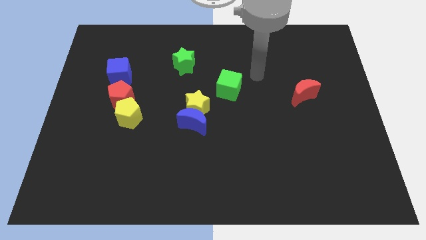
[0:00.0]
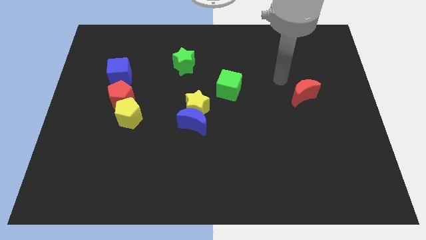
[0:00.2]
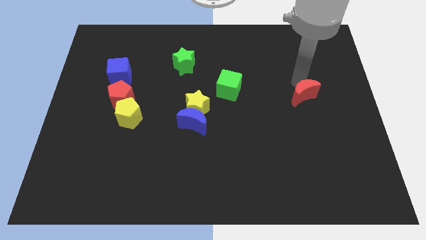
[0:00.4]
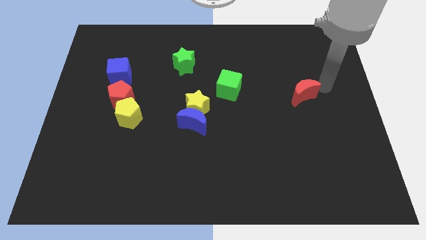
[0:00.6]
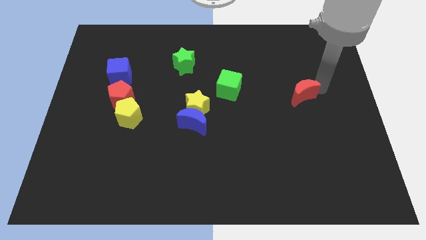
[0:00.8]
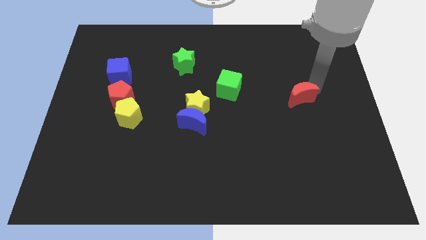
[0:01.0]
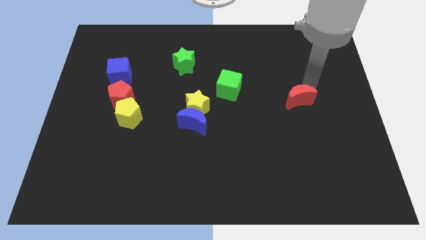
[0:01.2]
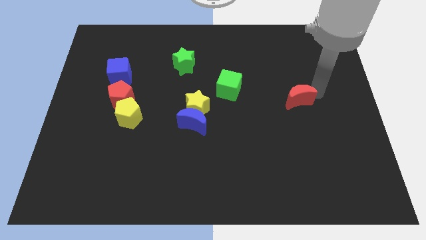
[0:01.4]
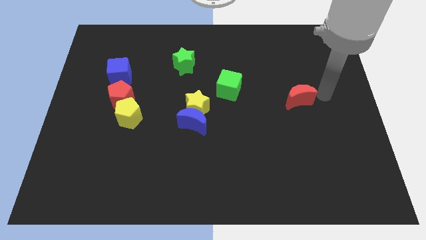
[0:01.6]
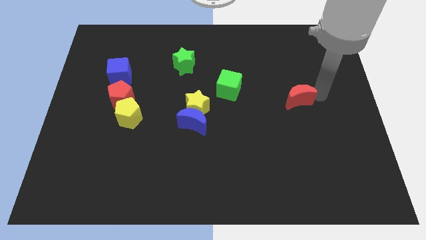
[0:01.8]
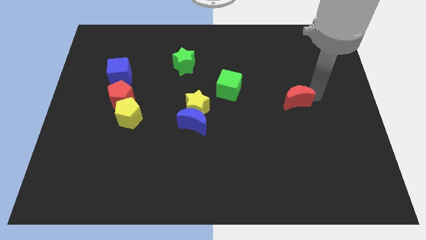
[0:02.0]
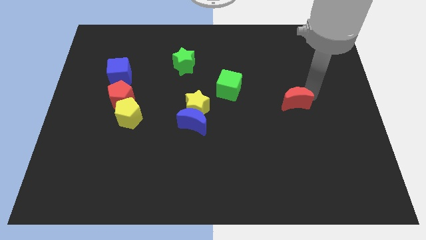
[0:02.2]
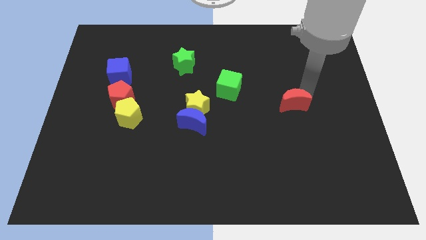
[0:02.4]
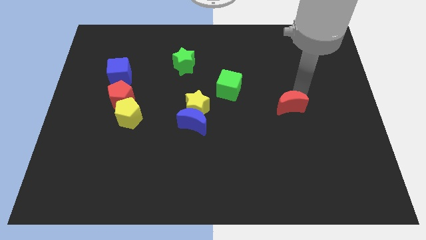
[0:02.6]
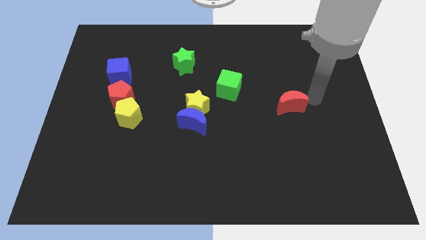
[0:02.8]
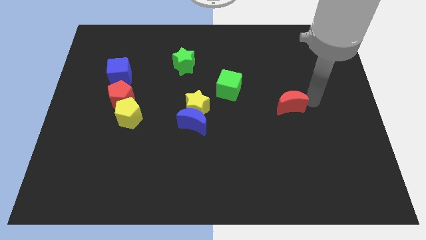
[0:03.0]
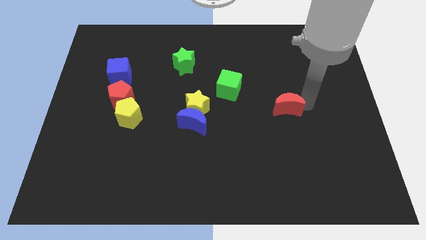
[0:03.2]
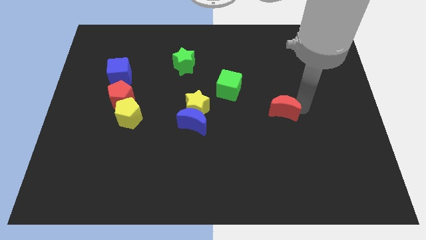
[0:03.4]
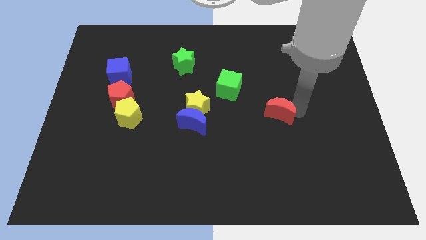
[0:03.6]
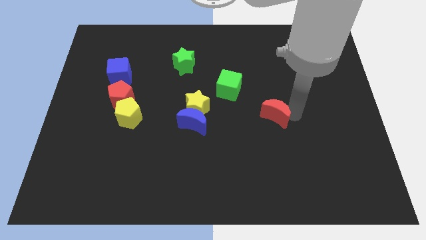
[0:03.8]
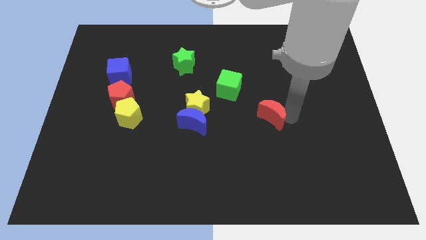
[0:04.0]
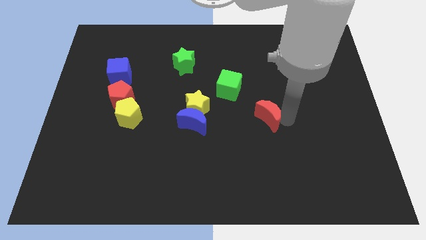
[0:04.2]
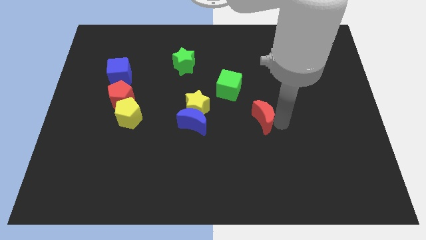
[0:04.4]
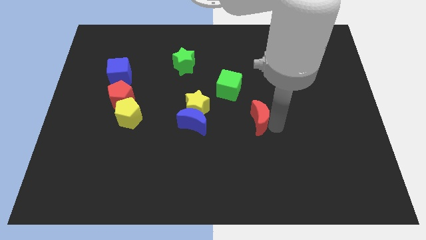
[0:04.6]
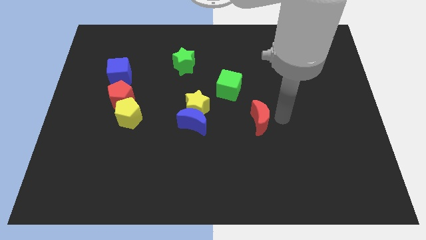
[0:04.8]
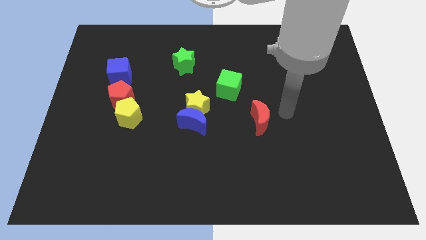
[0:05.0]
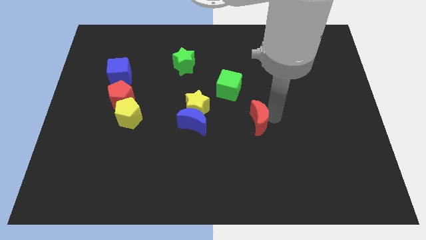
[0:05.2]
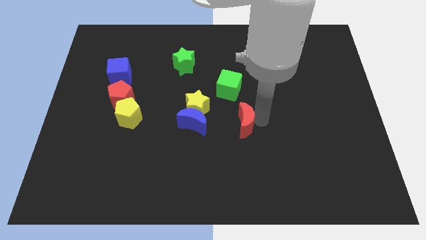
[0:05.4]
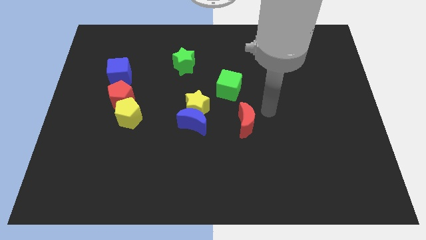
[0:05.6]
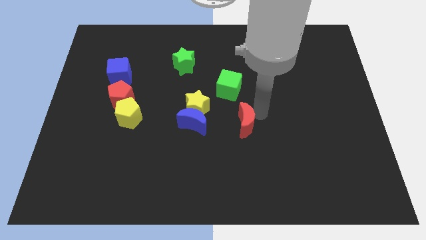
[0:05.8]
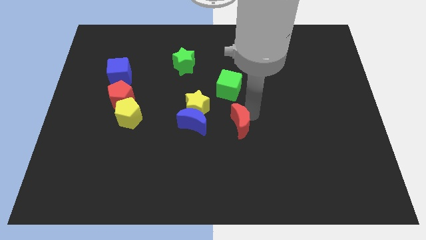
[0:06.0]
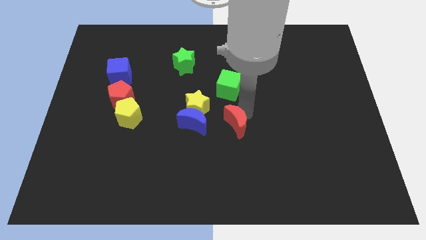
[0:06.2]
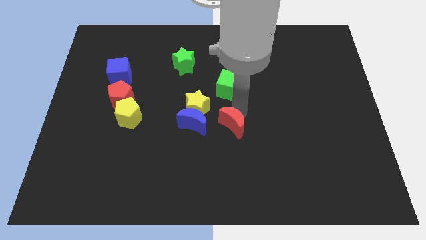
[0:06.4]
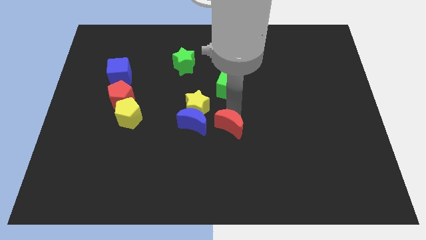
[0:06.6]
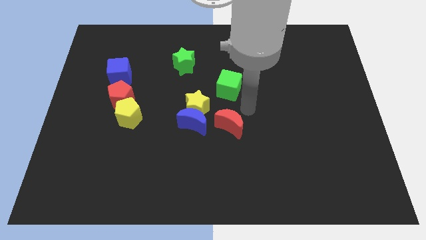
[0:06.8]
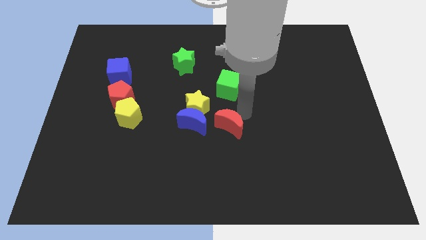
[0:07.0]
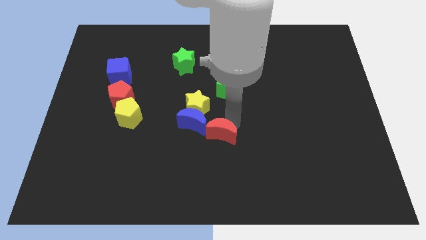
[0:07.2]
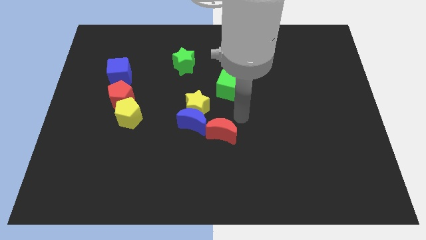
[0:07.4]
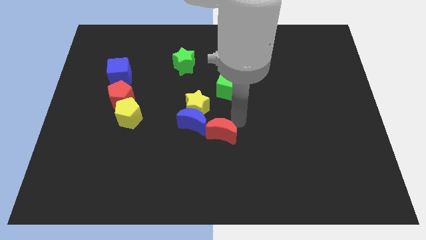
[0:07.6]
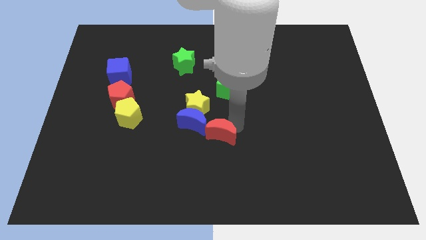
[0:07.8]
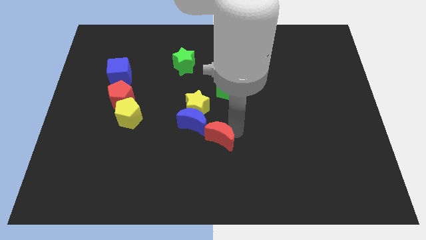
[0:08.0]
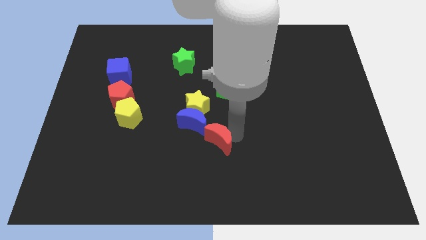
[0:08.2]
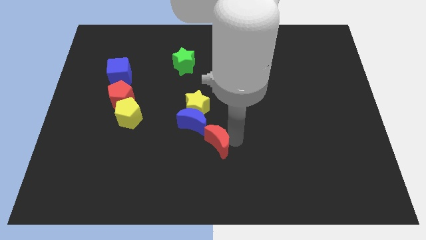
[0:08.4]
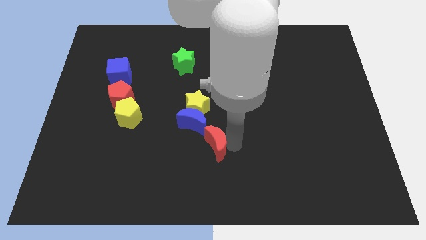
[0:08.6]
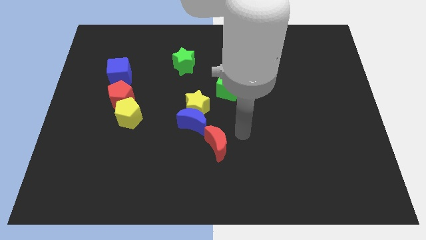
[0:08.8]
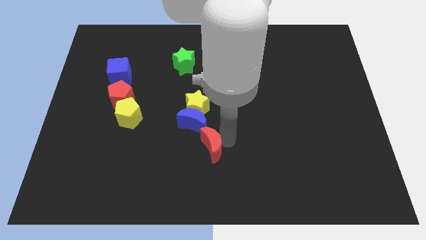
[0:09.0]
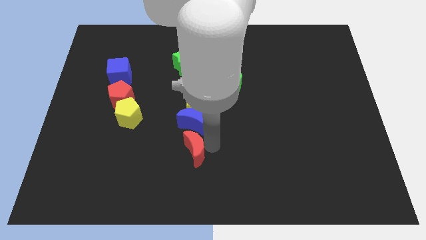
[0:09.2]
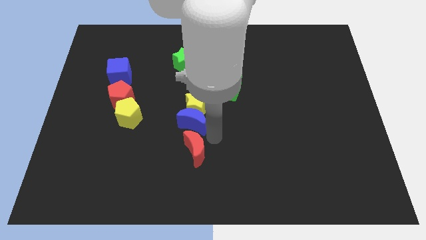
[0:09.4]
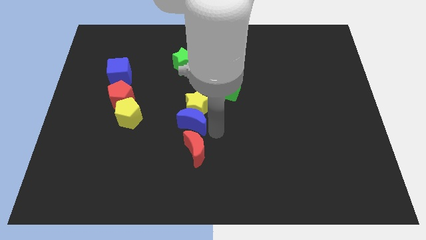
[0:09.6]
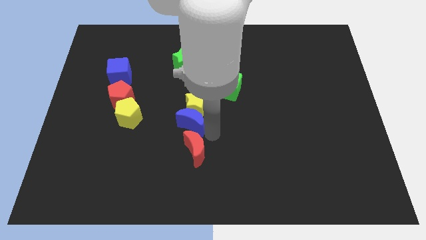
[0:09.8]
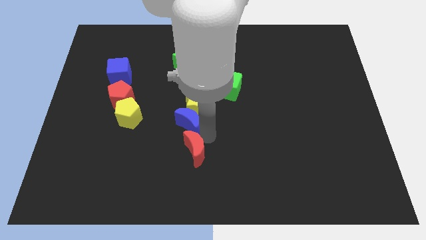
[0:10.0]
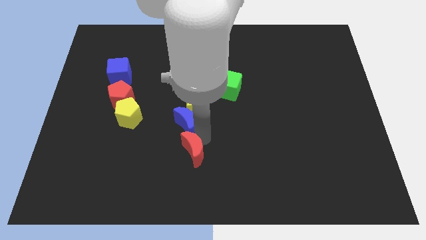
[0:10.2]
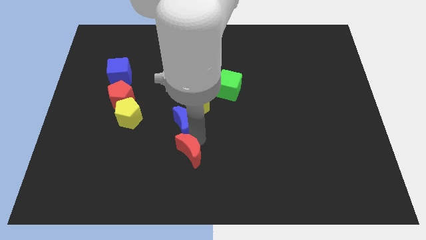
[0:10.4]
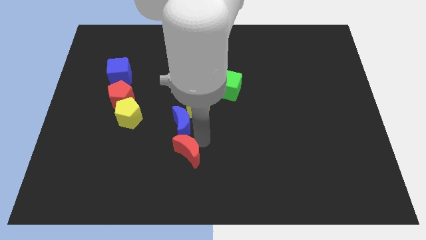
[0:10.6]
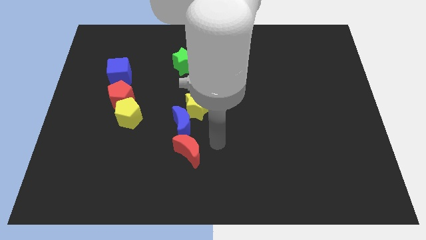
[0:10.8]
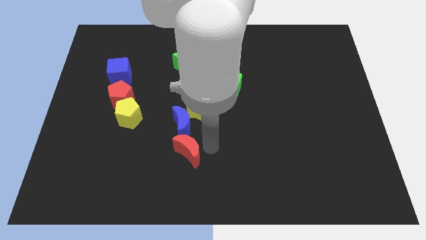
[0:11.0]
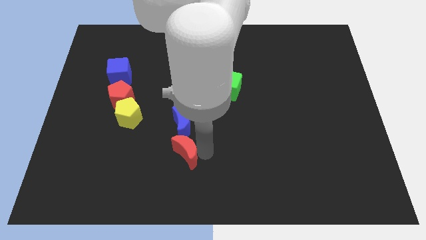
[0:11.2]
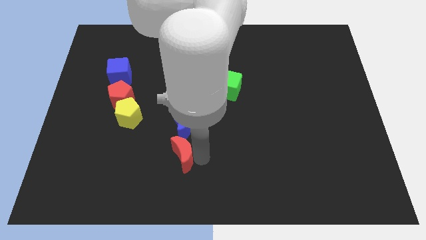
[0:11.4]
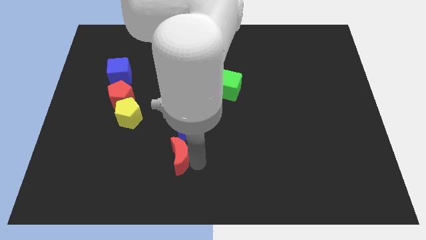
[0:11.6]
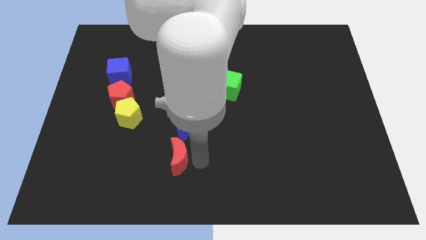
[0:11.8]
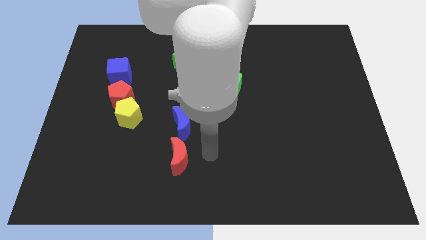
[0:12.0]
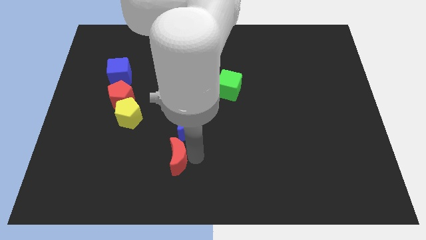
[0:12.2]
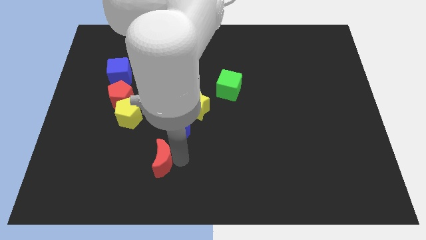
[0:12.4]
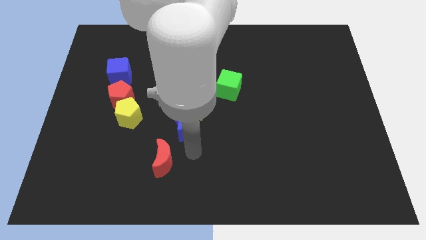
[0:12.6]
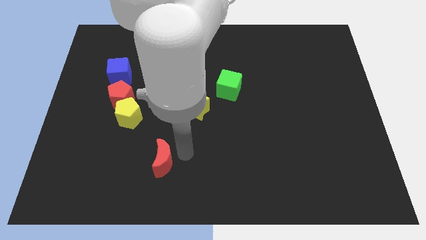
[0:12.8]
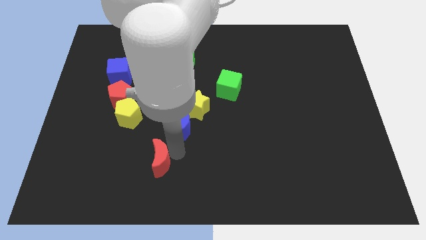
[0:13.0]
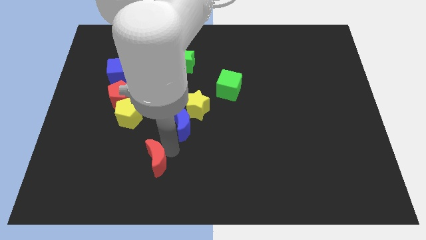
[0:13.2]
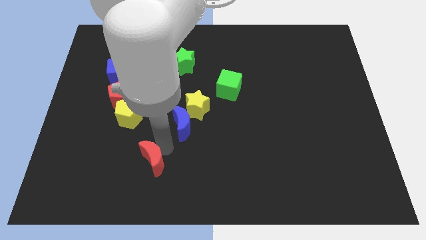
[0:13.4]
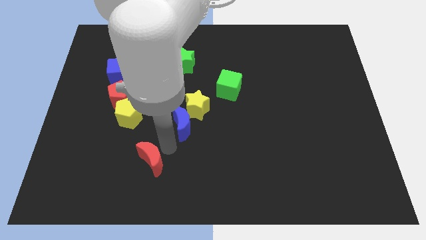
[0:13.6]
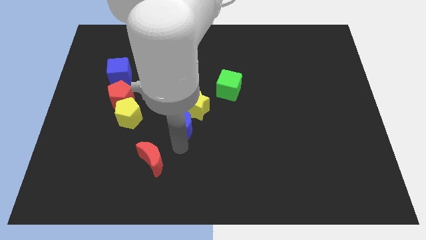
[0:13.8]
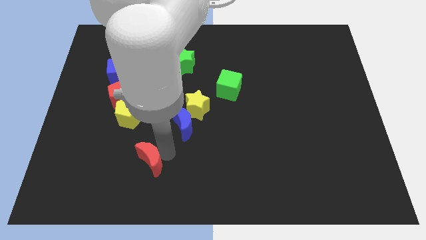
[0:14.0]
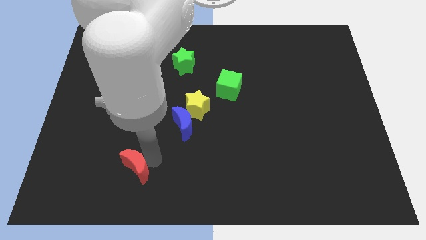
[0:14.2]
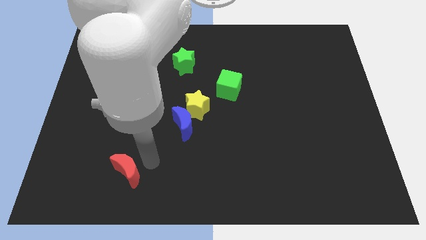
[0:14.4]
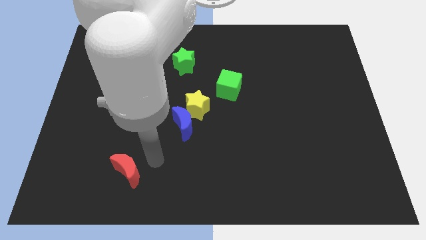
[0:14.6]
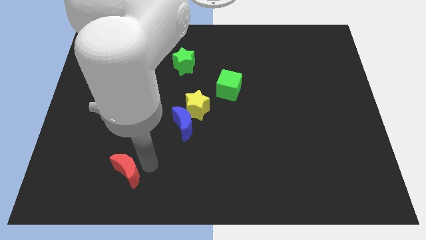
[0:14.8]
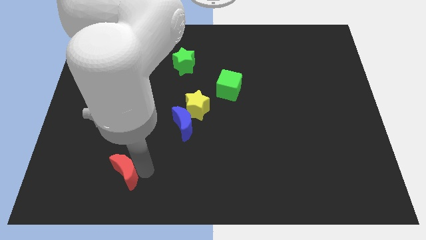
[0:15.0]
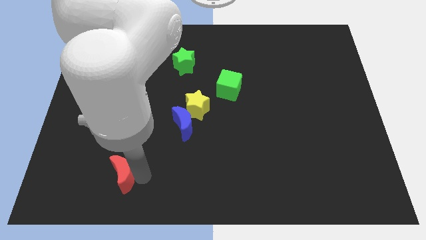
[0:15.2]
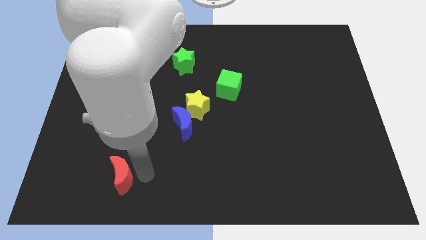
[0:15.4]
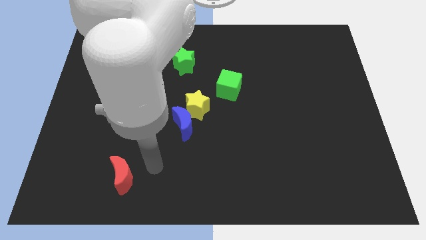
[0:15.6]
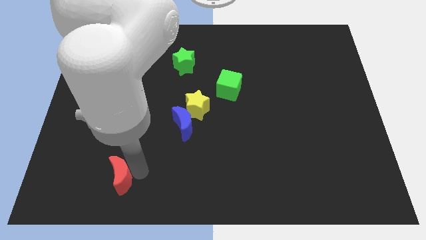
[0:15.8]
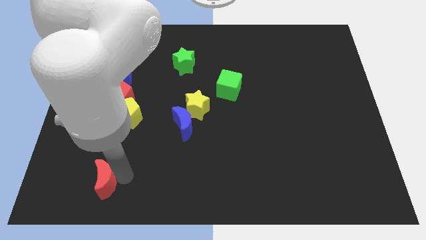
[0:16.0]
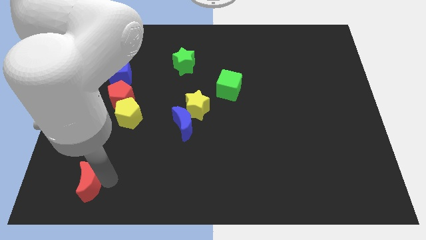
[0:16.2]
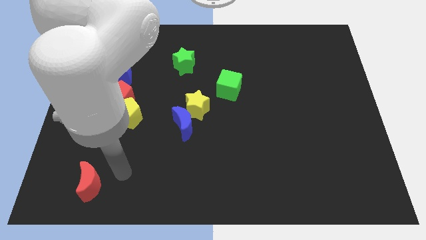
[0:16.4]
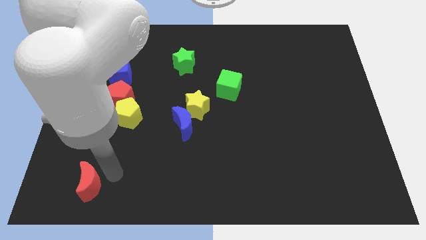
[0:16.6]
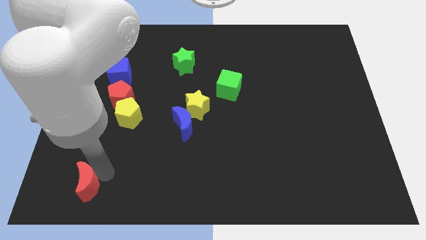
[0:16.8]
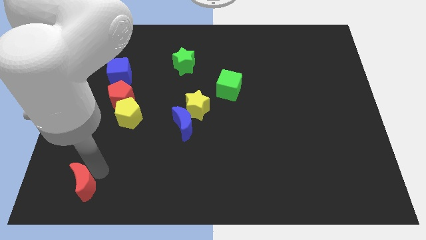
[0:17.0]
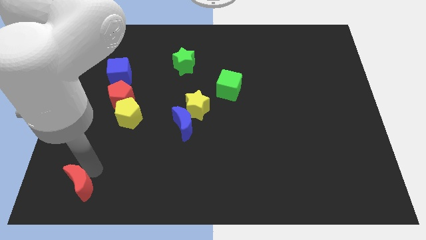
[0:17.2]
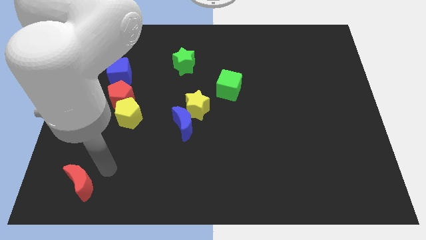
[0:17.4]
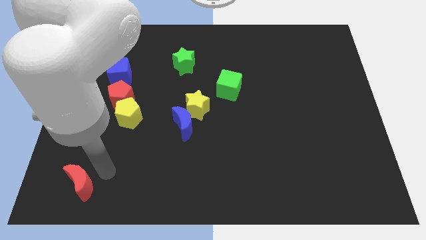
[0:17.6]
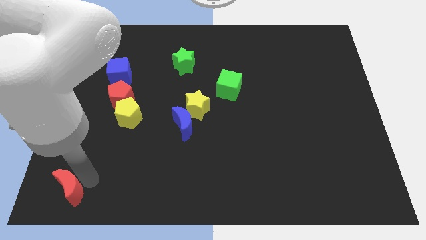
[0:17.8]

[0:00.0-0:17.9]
push the red moon to the bottom left corner
